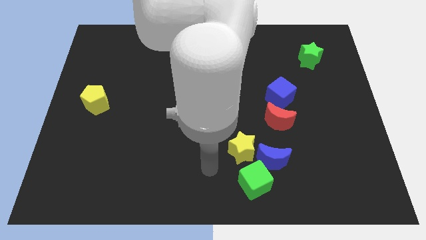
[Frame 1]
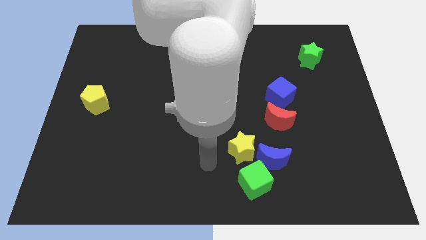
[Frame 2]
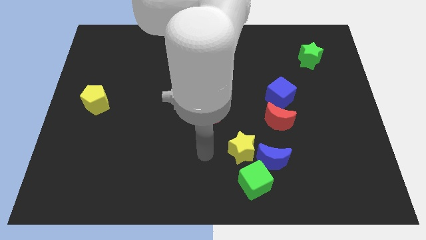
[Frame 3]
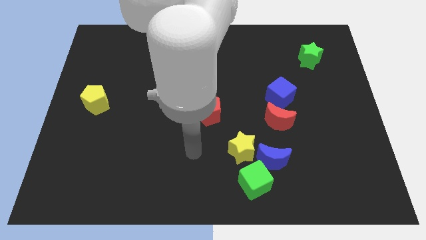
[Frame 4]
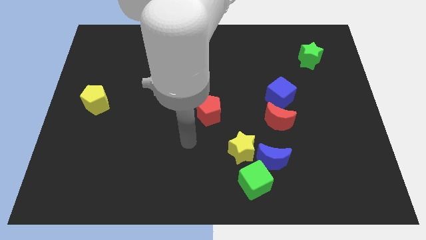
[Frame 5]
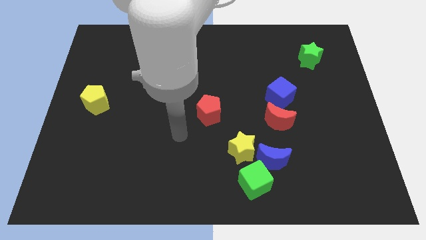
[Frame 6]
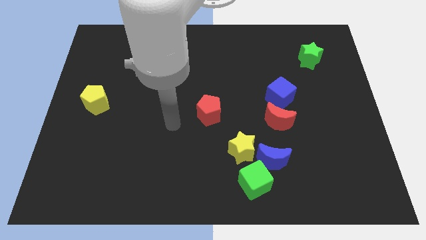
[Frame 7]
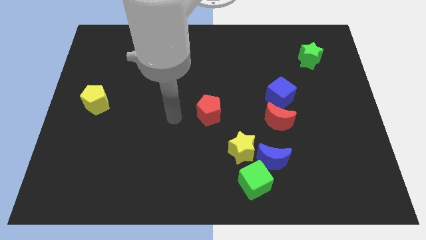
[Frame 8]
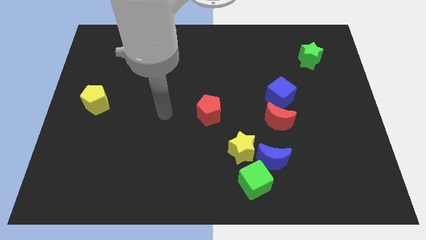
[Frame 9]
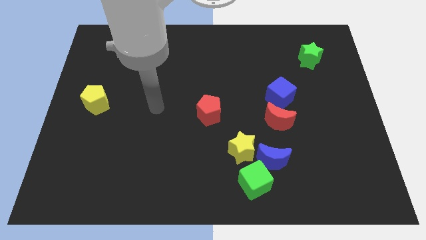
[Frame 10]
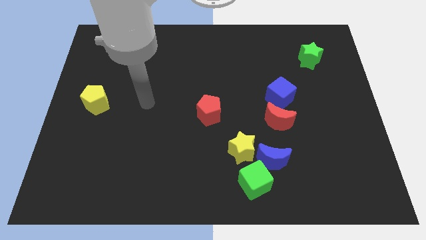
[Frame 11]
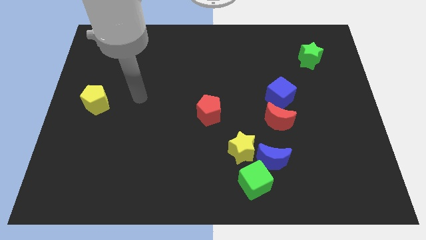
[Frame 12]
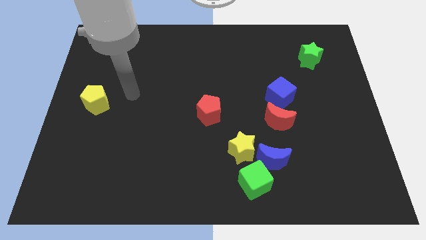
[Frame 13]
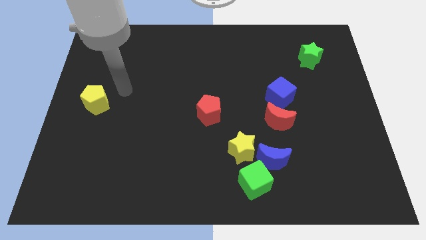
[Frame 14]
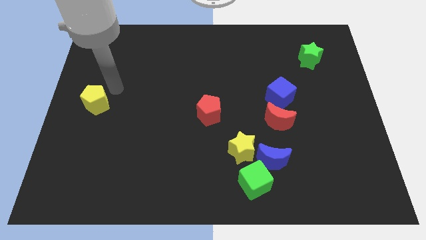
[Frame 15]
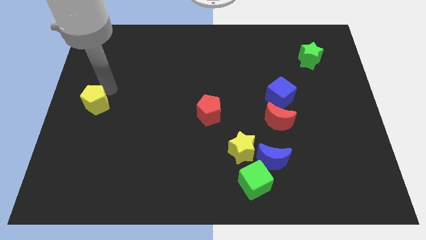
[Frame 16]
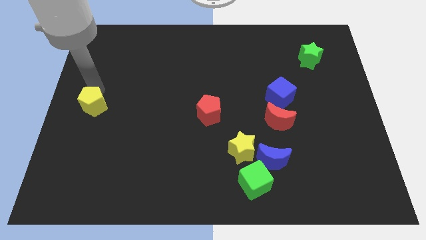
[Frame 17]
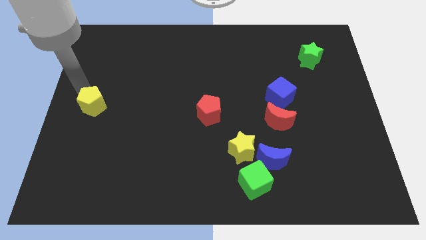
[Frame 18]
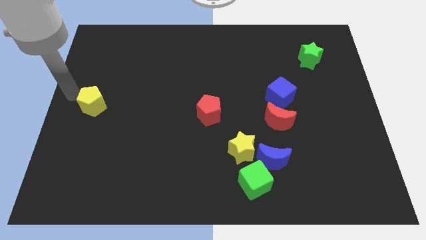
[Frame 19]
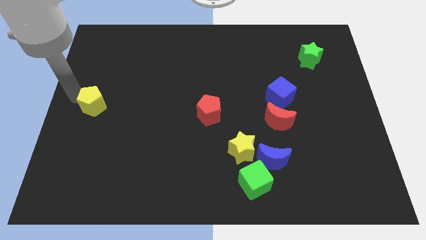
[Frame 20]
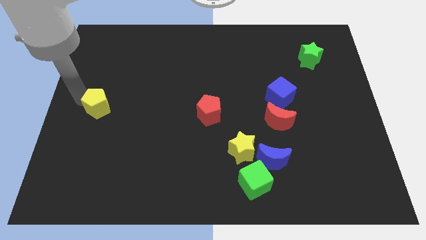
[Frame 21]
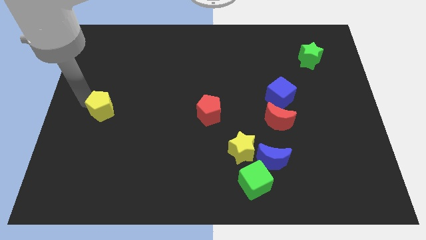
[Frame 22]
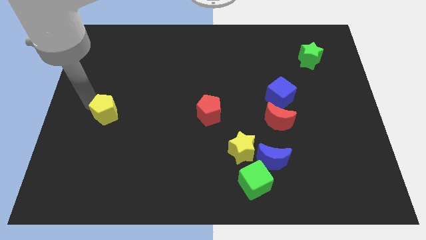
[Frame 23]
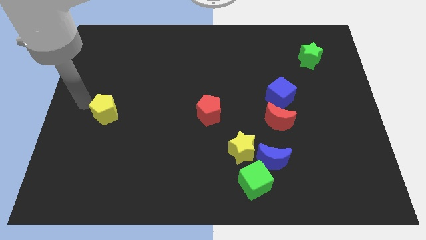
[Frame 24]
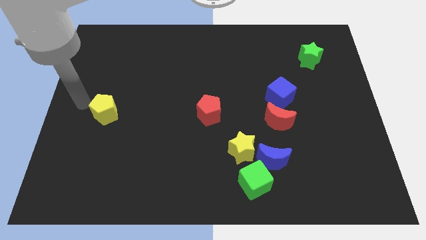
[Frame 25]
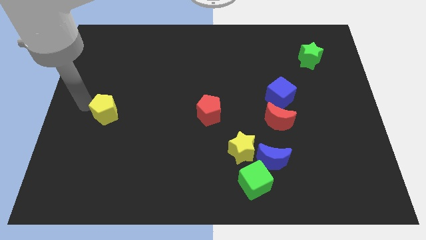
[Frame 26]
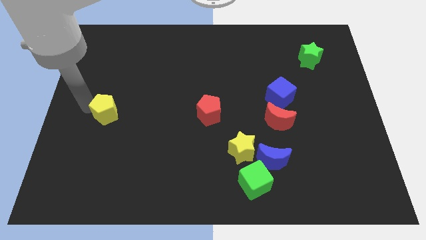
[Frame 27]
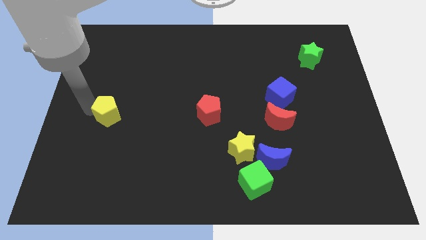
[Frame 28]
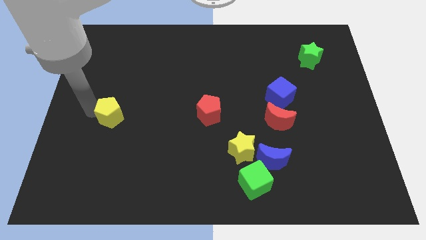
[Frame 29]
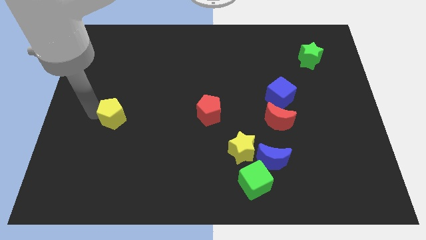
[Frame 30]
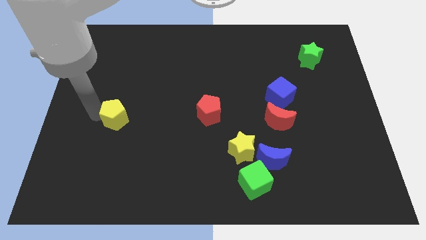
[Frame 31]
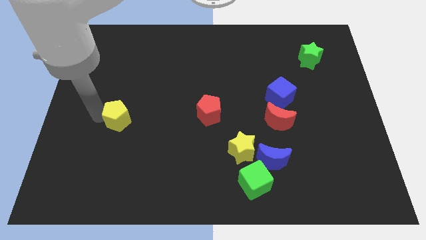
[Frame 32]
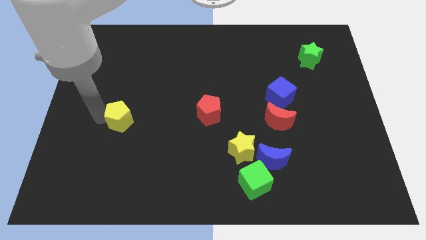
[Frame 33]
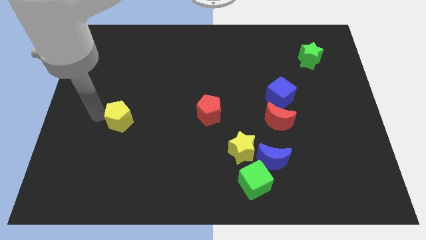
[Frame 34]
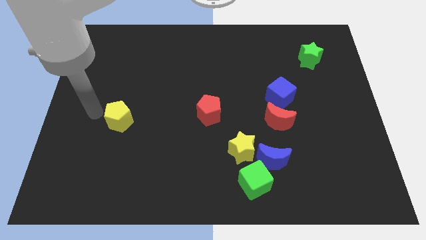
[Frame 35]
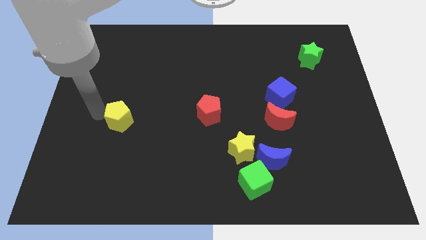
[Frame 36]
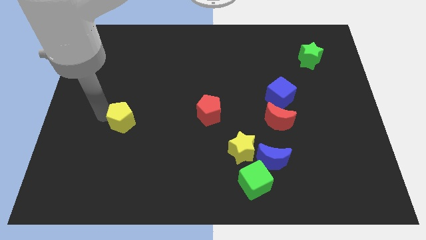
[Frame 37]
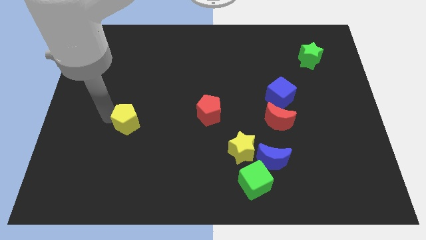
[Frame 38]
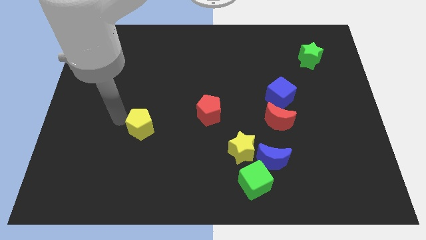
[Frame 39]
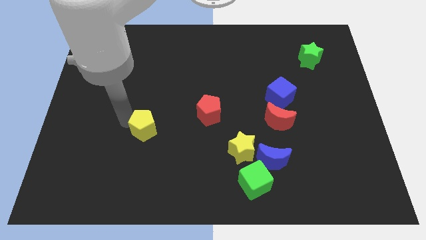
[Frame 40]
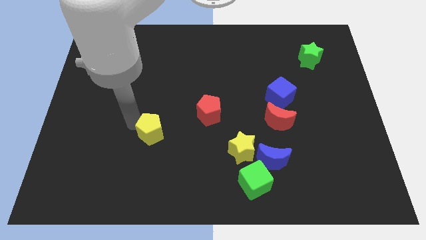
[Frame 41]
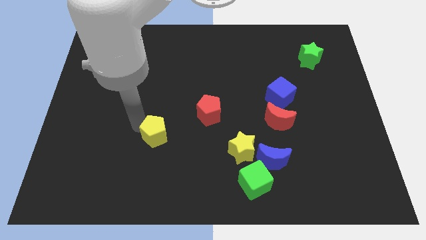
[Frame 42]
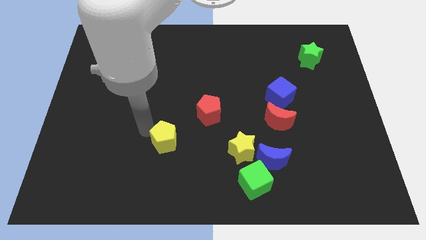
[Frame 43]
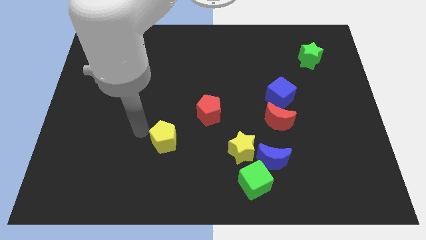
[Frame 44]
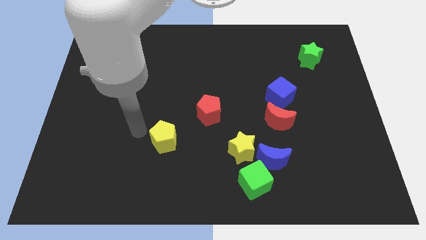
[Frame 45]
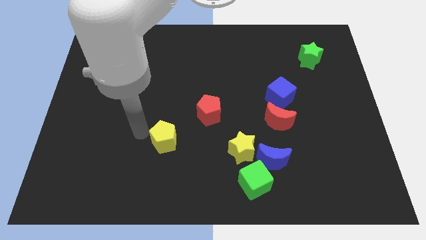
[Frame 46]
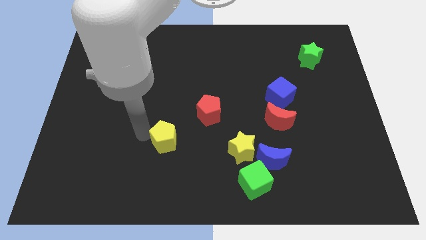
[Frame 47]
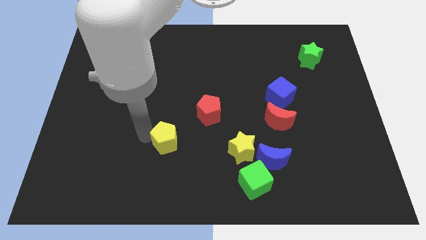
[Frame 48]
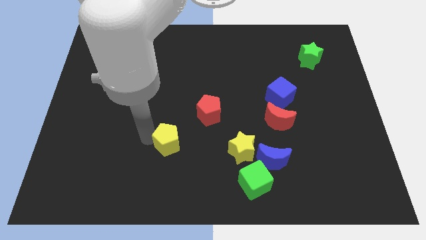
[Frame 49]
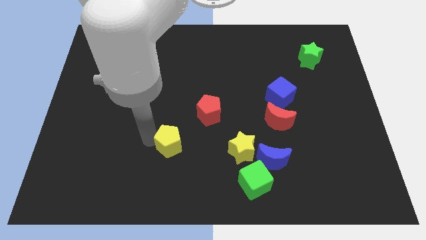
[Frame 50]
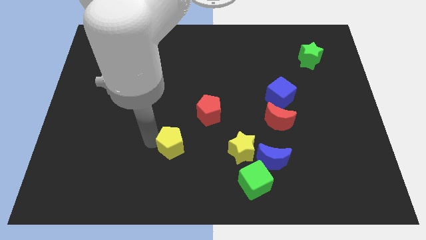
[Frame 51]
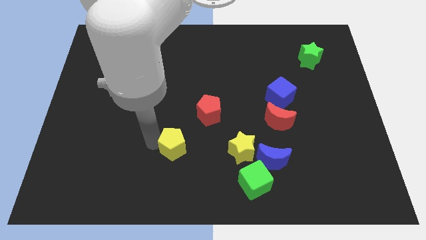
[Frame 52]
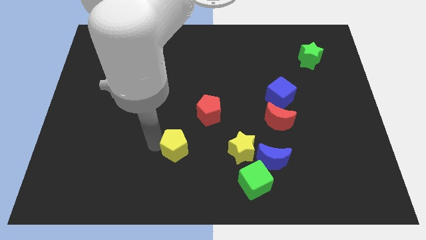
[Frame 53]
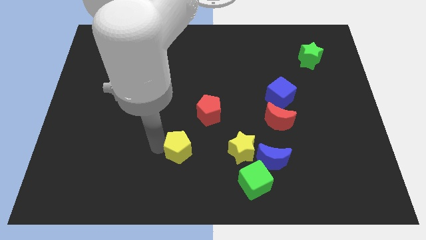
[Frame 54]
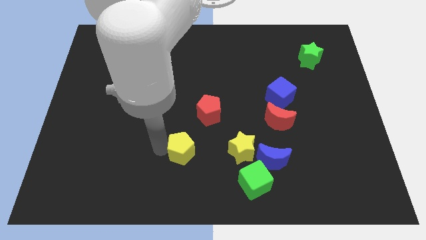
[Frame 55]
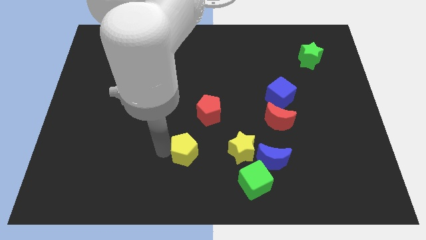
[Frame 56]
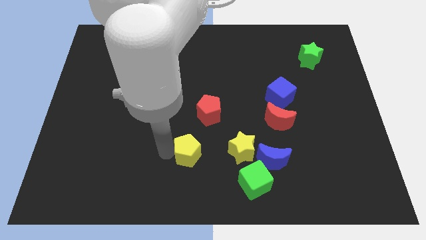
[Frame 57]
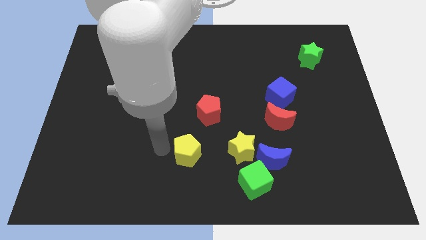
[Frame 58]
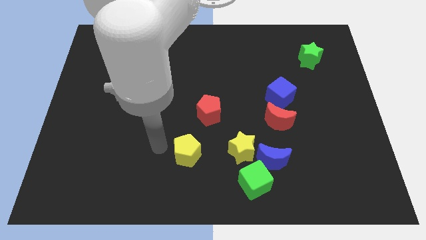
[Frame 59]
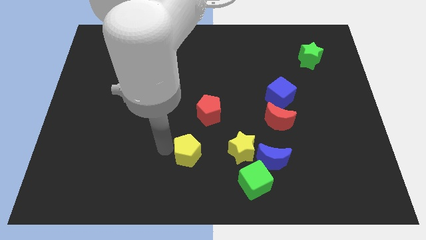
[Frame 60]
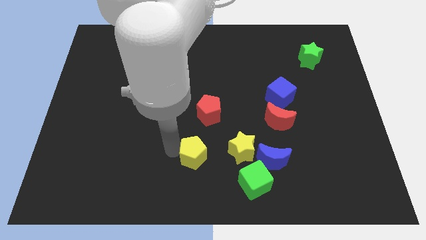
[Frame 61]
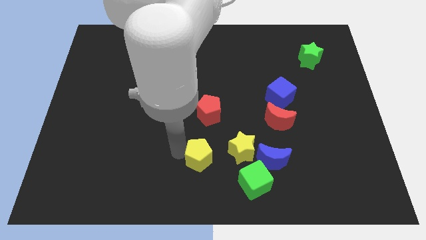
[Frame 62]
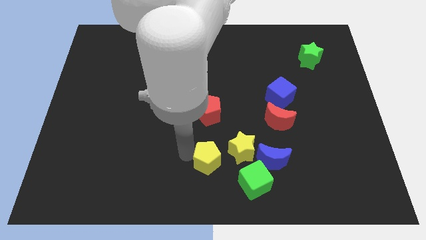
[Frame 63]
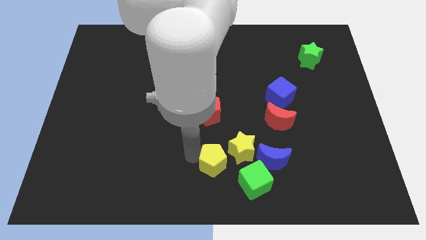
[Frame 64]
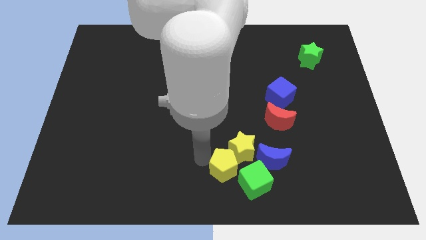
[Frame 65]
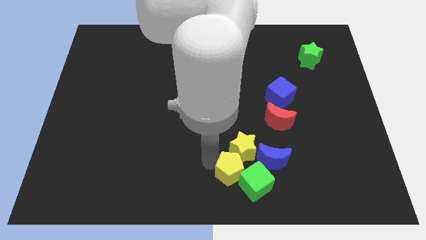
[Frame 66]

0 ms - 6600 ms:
put the yellow pentagon close to the green cube
